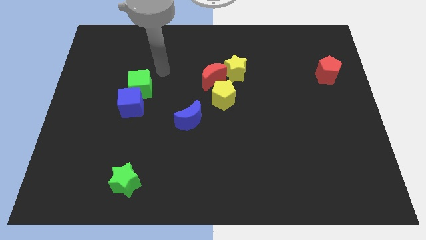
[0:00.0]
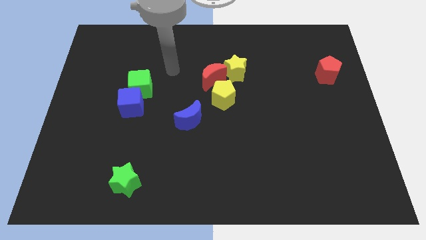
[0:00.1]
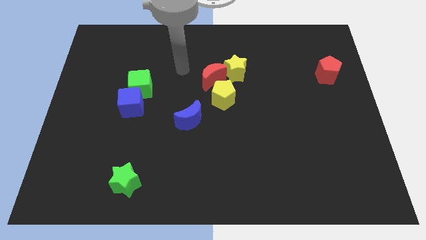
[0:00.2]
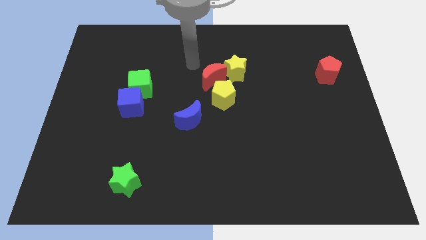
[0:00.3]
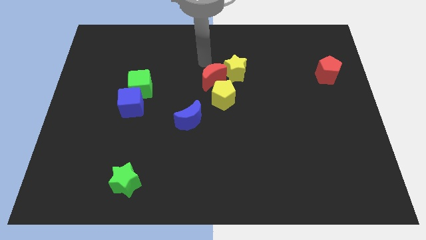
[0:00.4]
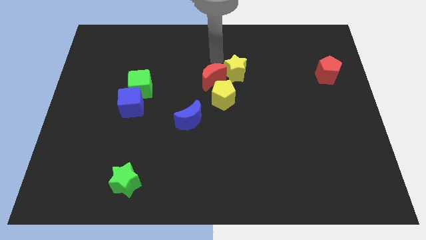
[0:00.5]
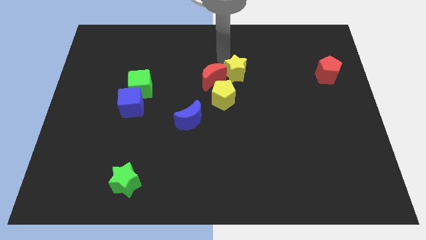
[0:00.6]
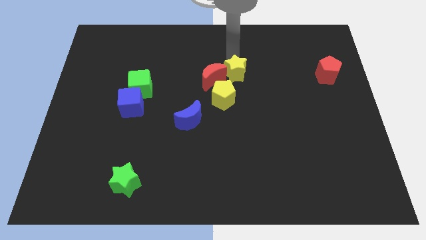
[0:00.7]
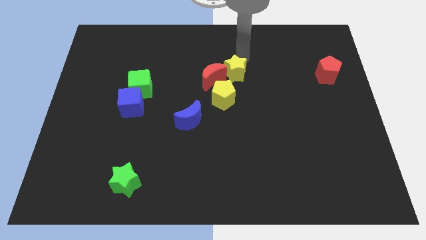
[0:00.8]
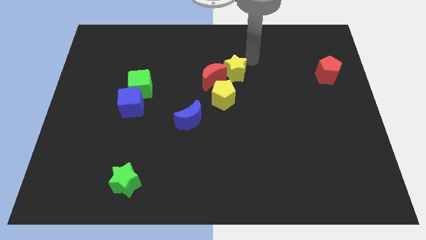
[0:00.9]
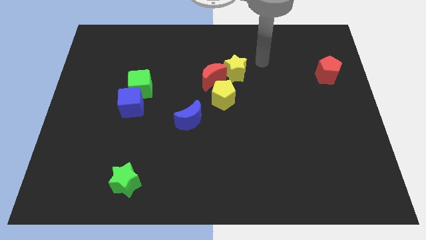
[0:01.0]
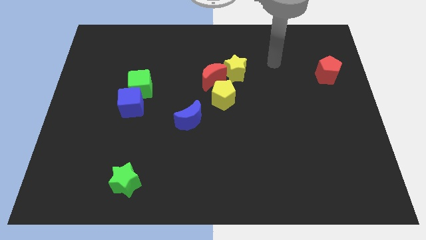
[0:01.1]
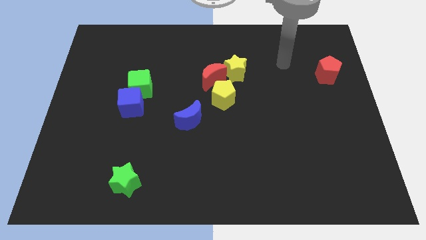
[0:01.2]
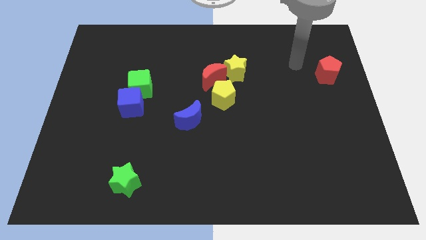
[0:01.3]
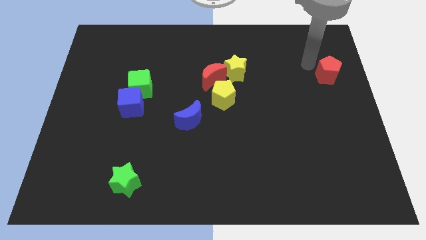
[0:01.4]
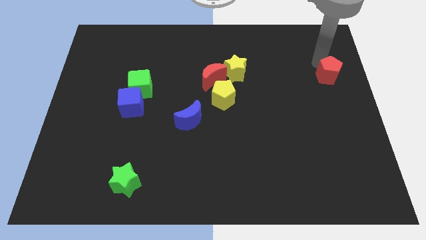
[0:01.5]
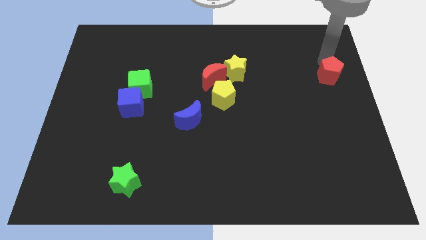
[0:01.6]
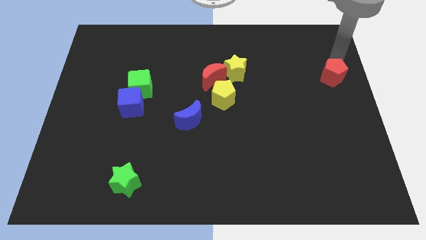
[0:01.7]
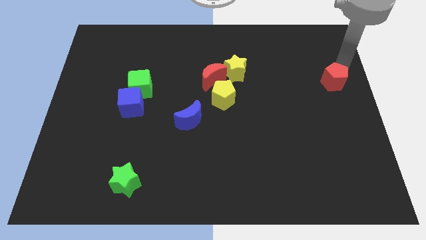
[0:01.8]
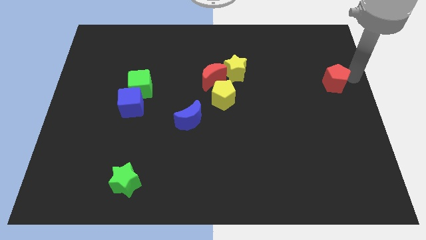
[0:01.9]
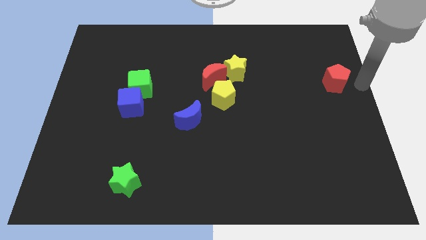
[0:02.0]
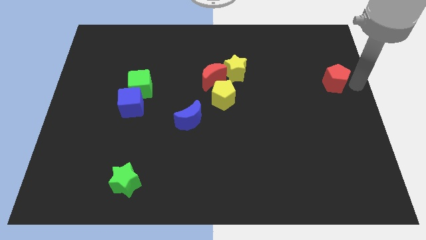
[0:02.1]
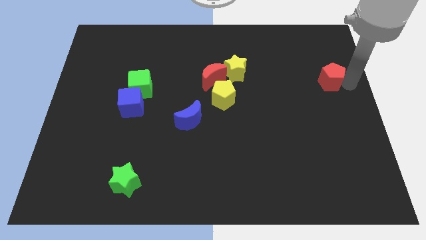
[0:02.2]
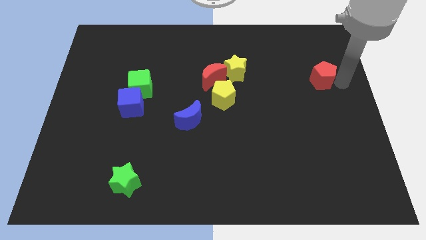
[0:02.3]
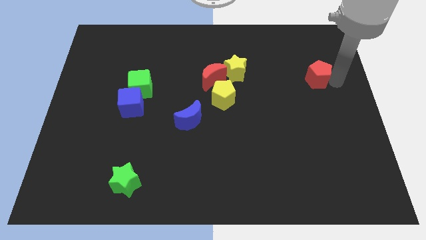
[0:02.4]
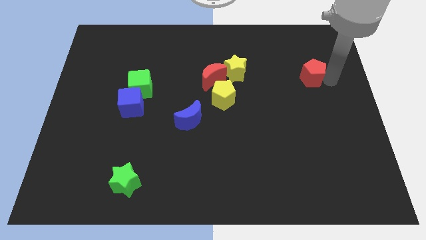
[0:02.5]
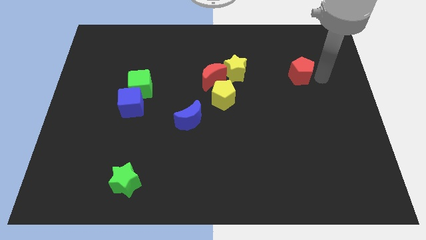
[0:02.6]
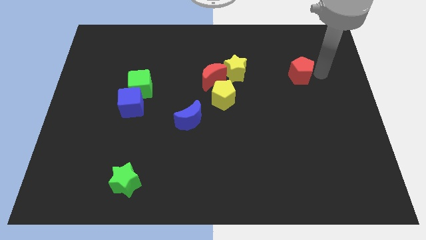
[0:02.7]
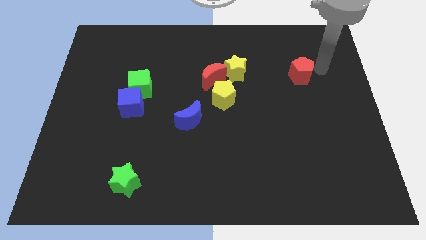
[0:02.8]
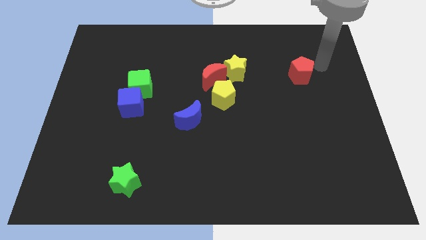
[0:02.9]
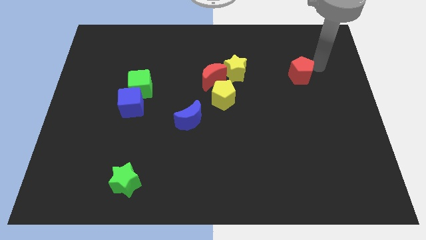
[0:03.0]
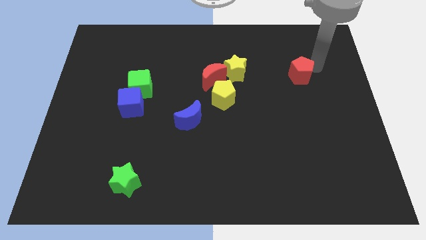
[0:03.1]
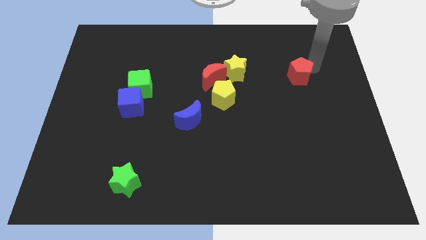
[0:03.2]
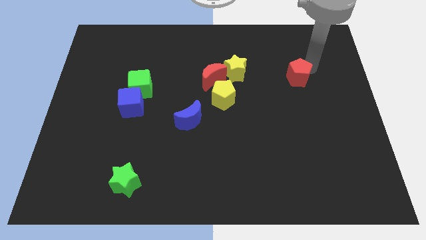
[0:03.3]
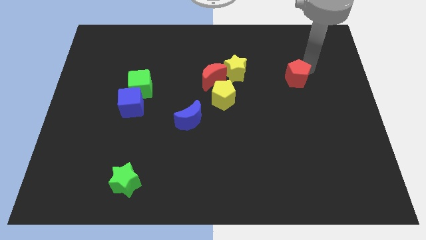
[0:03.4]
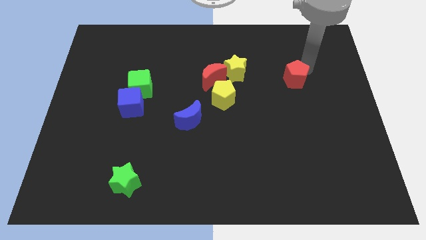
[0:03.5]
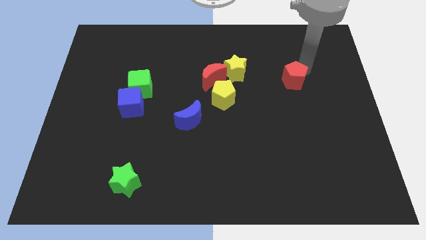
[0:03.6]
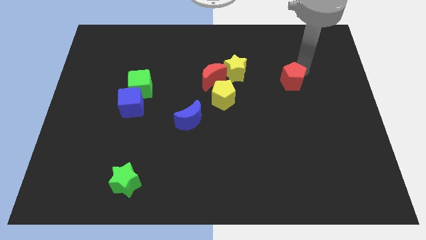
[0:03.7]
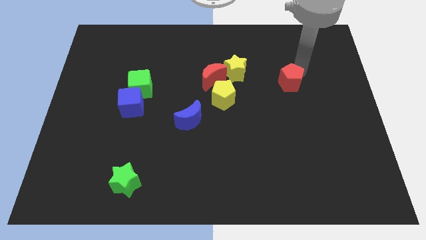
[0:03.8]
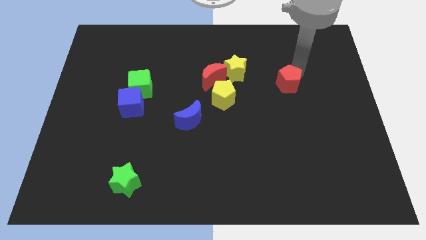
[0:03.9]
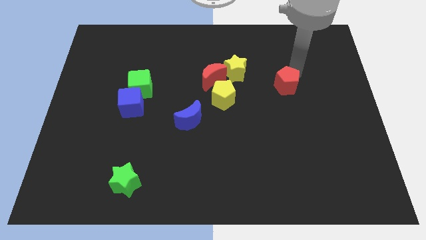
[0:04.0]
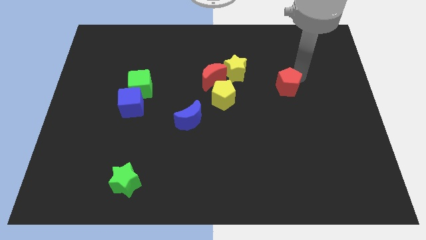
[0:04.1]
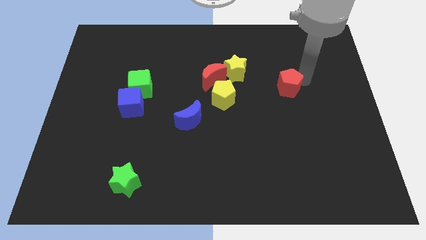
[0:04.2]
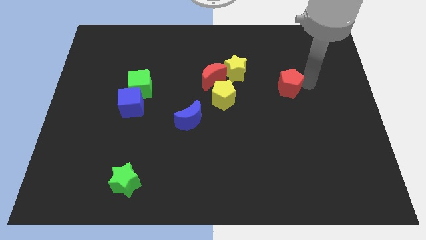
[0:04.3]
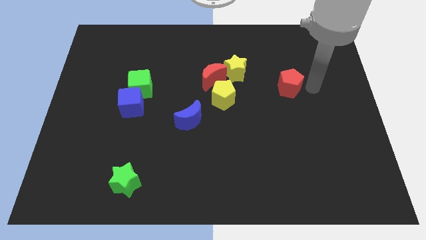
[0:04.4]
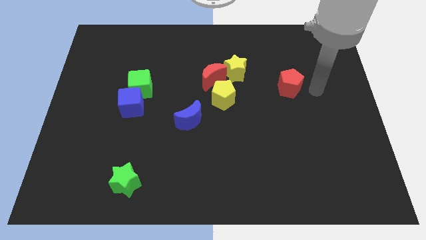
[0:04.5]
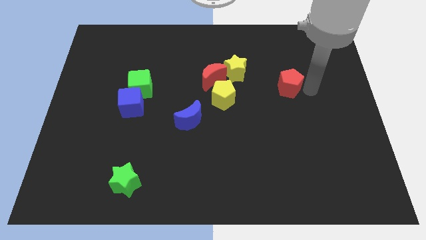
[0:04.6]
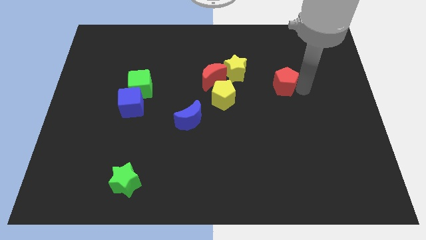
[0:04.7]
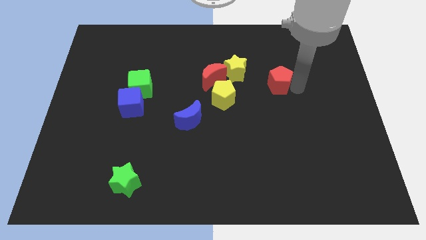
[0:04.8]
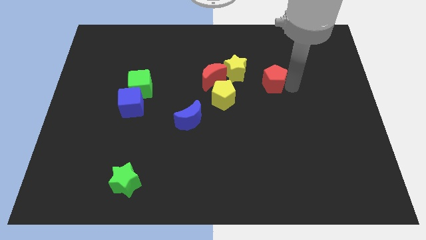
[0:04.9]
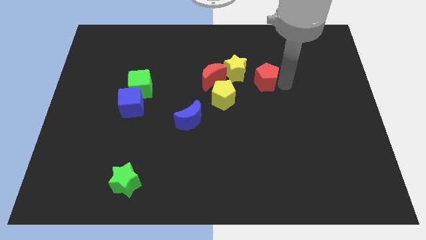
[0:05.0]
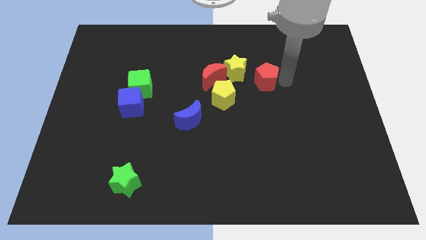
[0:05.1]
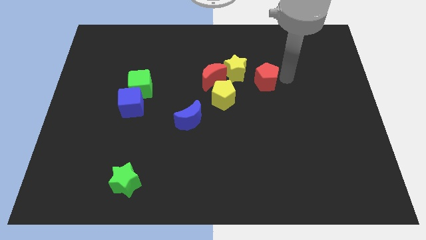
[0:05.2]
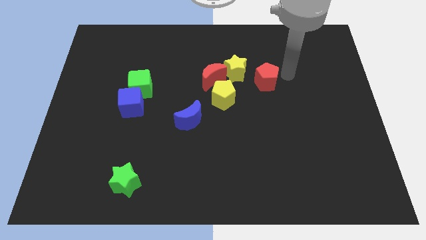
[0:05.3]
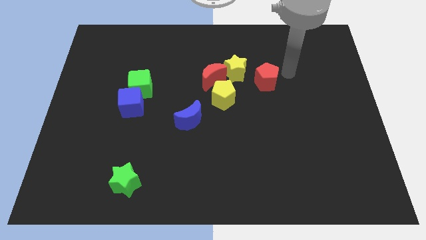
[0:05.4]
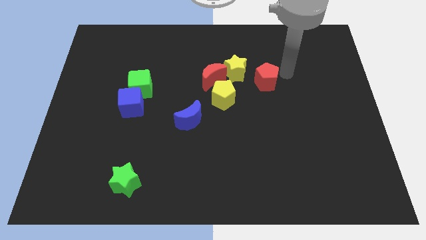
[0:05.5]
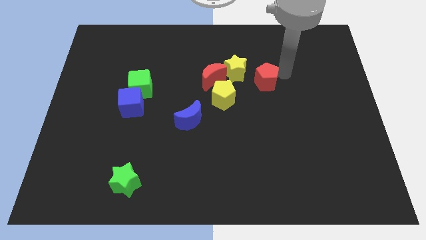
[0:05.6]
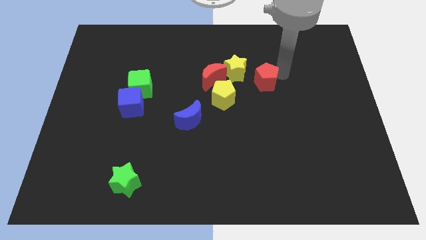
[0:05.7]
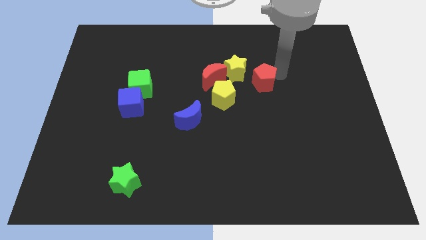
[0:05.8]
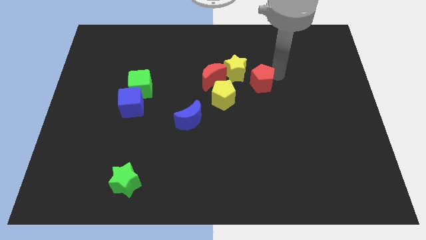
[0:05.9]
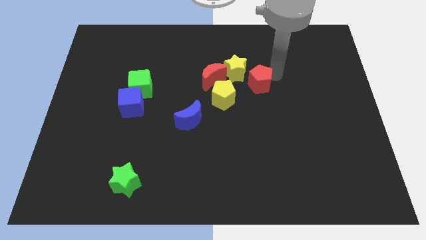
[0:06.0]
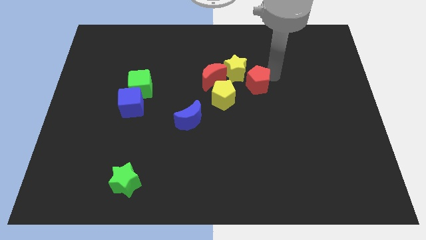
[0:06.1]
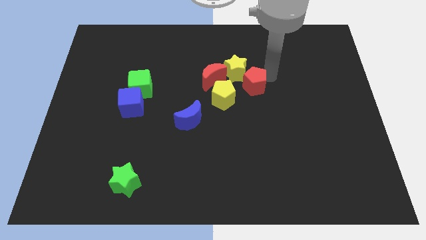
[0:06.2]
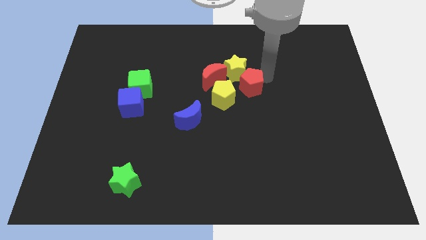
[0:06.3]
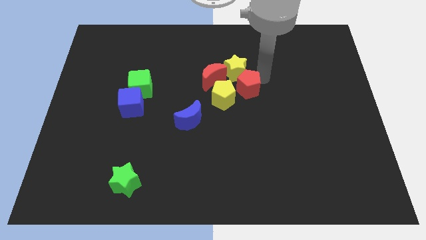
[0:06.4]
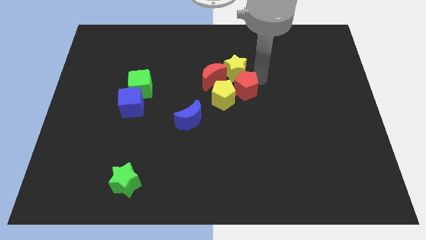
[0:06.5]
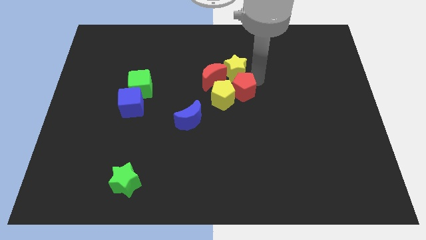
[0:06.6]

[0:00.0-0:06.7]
put the red pentagon close to the yellow pentagon

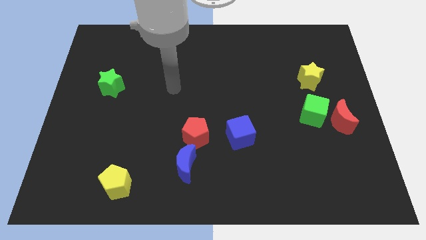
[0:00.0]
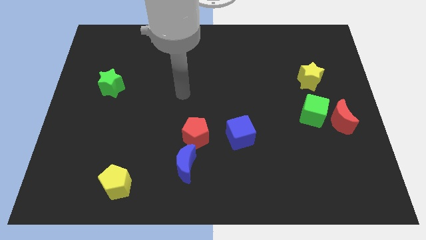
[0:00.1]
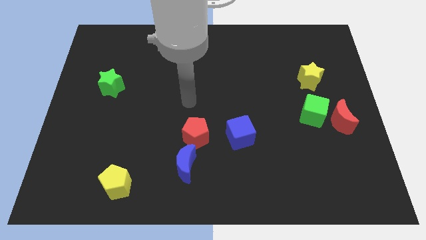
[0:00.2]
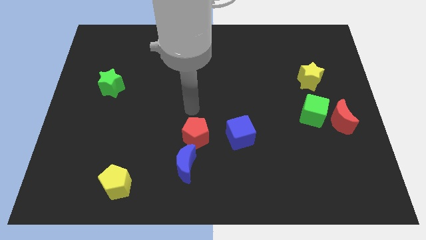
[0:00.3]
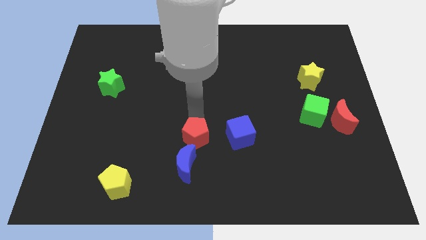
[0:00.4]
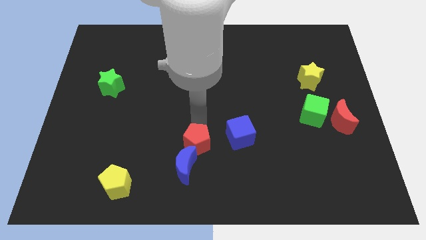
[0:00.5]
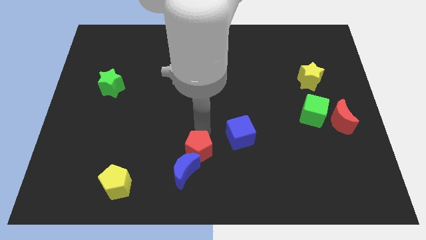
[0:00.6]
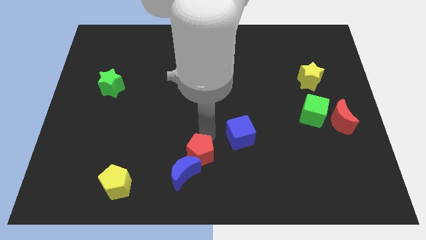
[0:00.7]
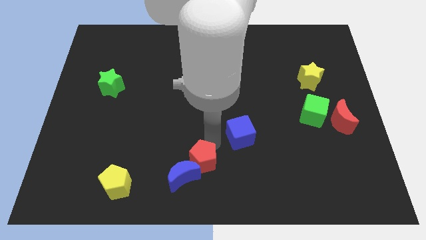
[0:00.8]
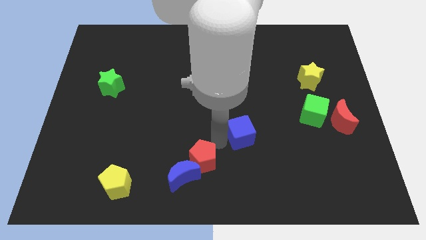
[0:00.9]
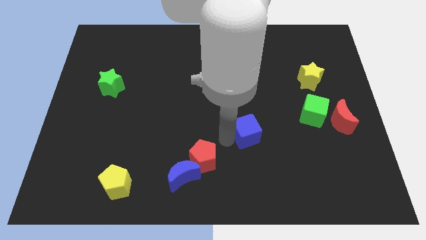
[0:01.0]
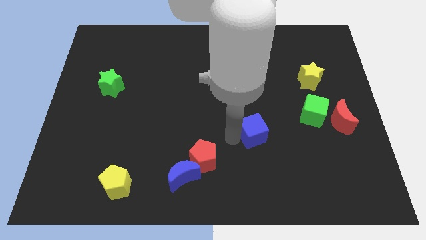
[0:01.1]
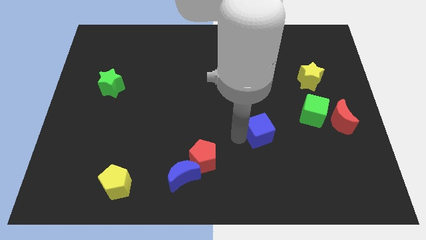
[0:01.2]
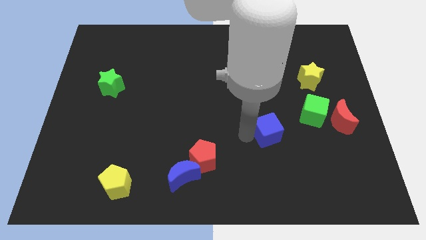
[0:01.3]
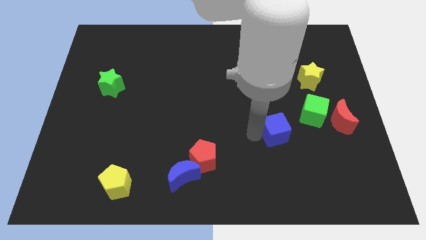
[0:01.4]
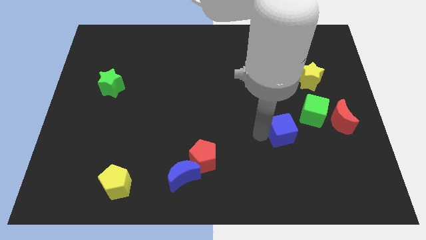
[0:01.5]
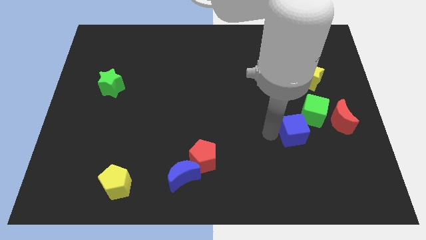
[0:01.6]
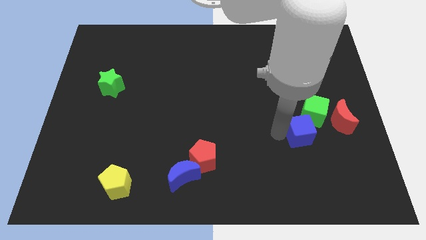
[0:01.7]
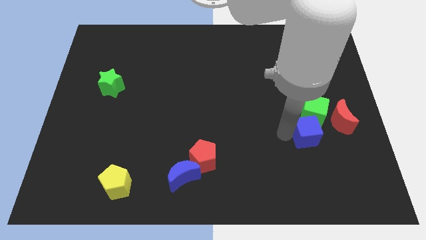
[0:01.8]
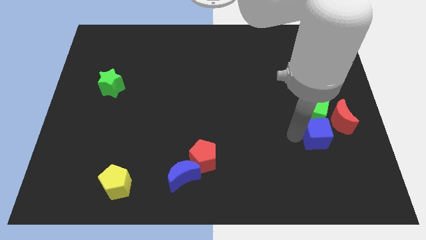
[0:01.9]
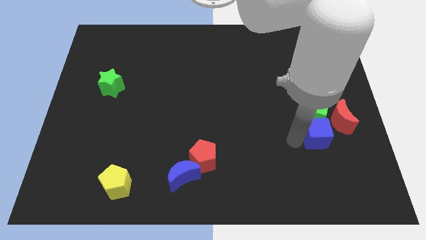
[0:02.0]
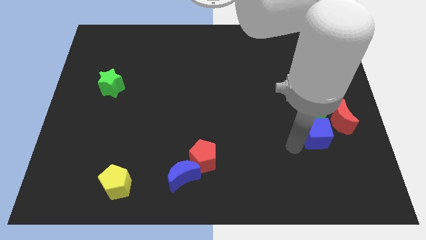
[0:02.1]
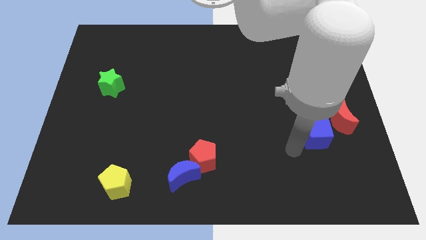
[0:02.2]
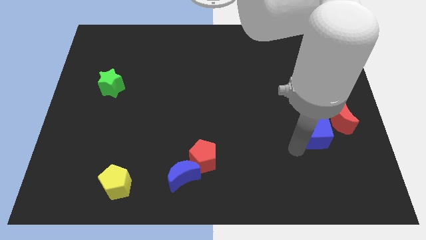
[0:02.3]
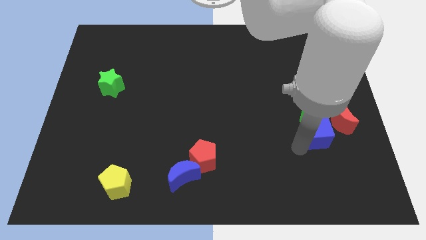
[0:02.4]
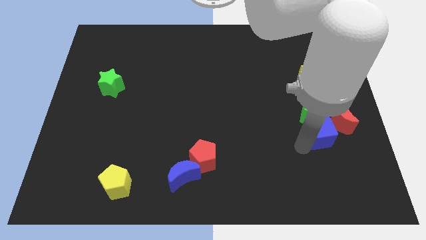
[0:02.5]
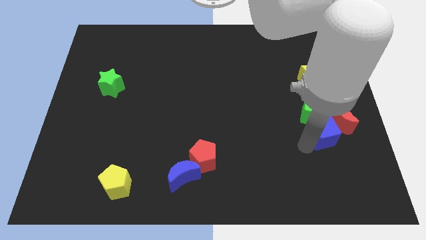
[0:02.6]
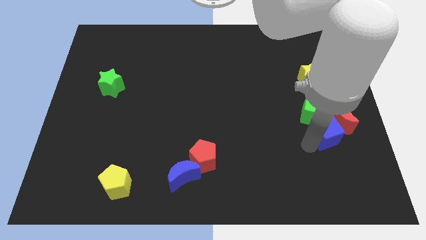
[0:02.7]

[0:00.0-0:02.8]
move the blue cube next to the red moon
